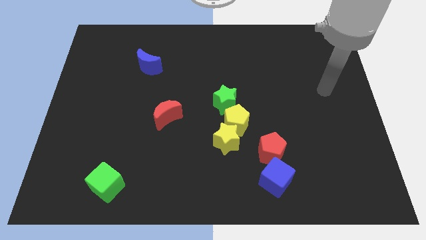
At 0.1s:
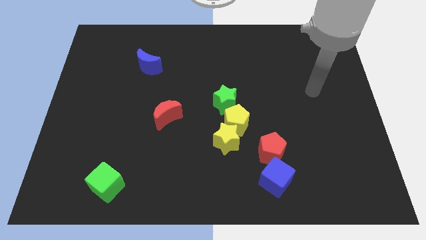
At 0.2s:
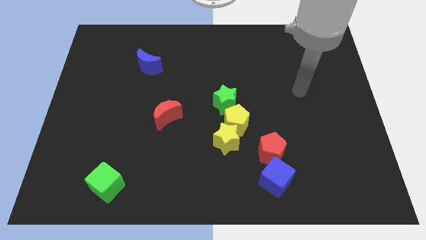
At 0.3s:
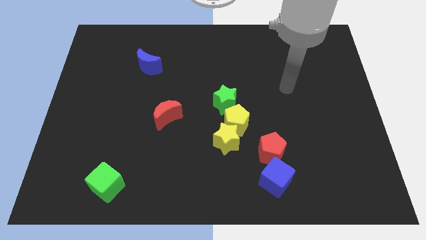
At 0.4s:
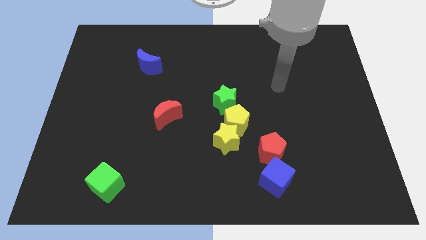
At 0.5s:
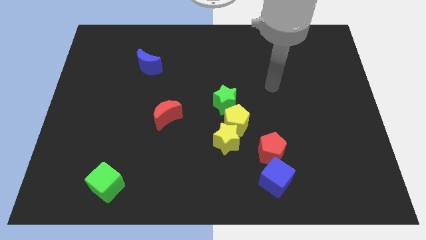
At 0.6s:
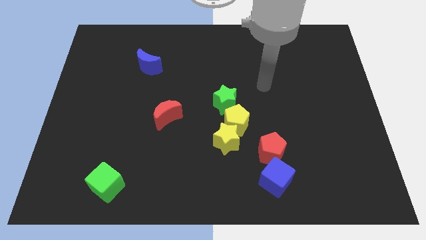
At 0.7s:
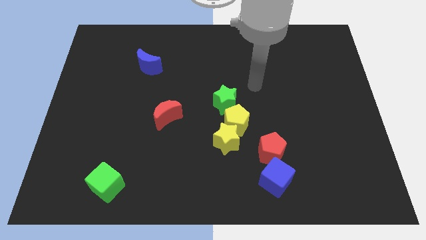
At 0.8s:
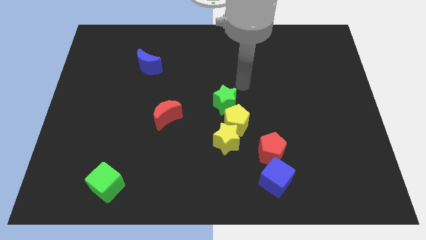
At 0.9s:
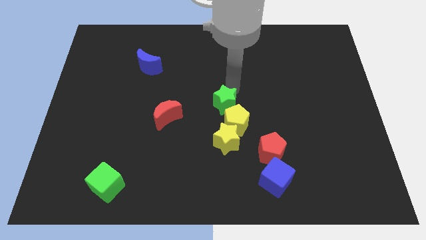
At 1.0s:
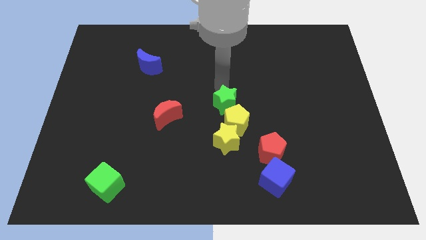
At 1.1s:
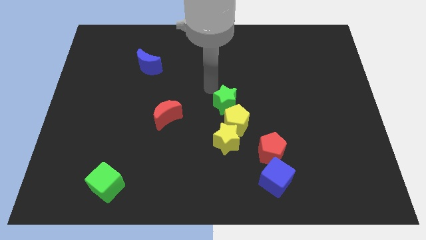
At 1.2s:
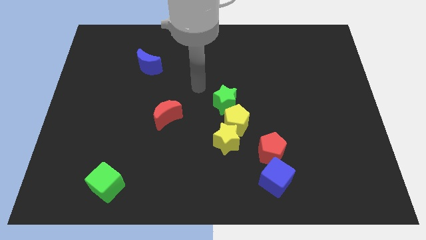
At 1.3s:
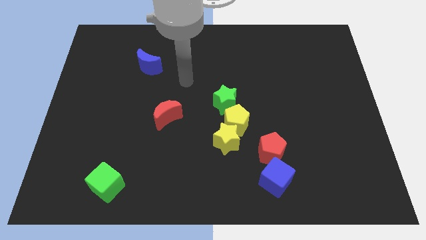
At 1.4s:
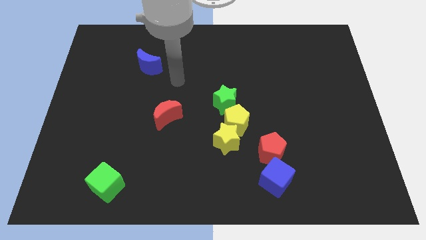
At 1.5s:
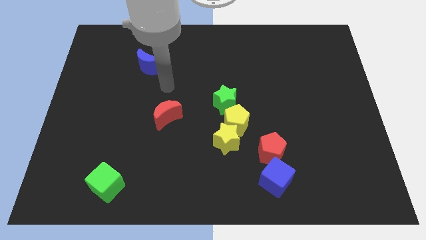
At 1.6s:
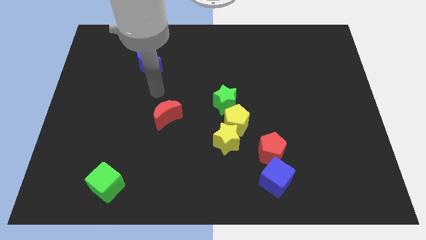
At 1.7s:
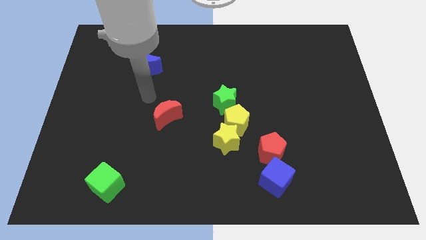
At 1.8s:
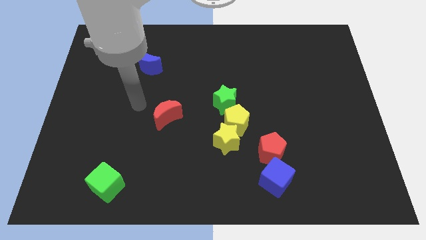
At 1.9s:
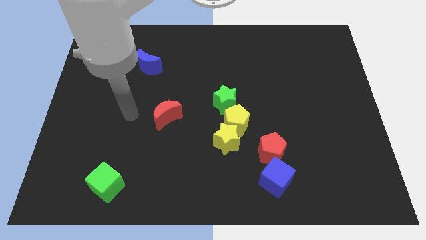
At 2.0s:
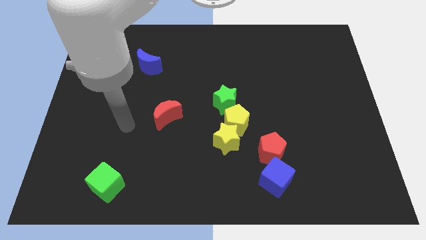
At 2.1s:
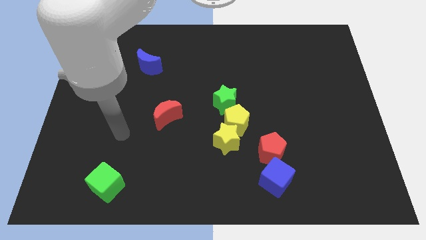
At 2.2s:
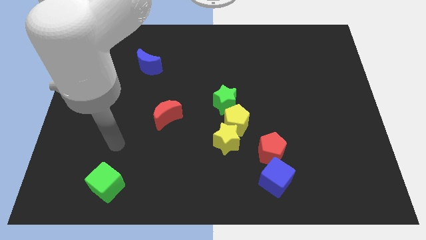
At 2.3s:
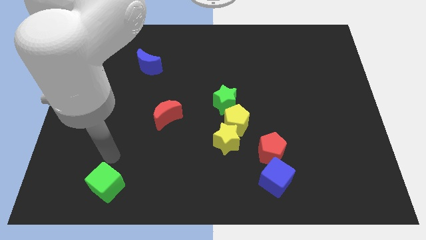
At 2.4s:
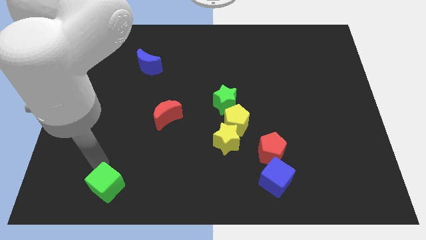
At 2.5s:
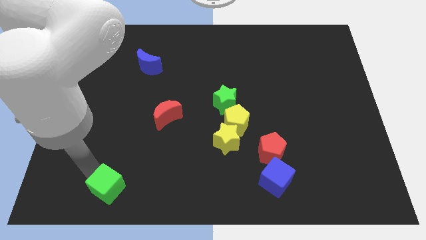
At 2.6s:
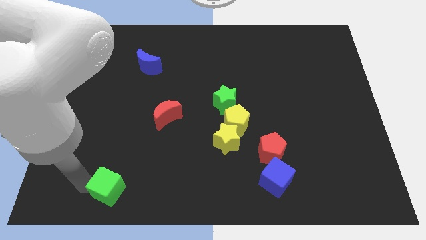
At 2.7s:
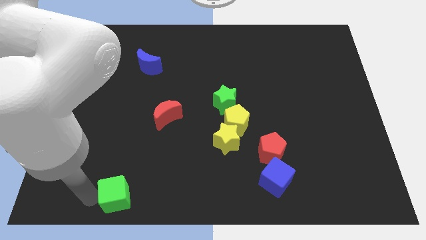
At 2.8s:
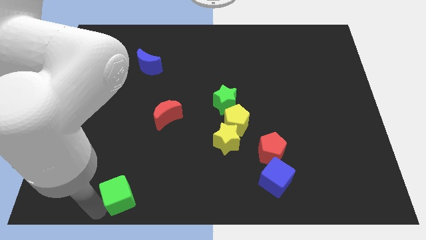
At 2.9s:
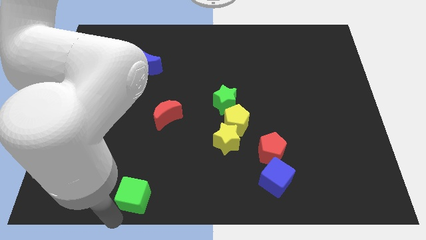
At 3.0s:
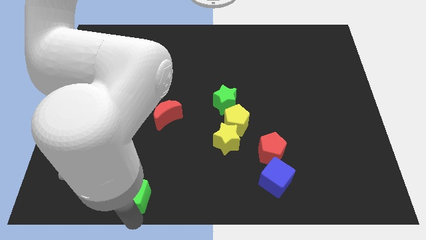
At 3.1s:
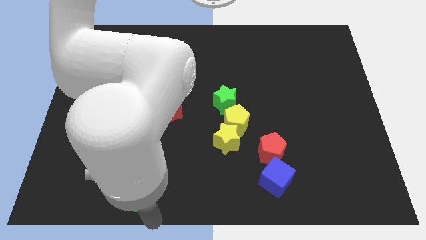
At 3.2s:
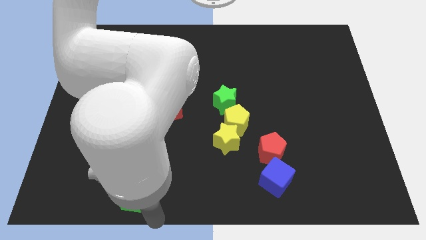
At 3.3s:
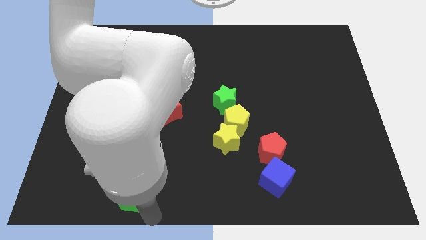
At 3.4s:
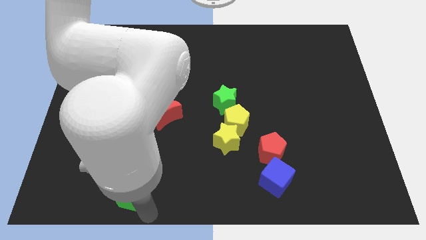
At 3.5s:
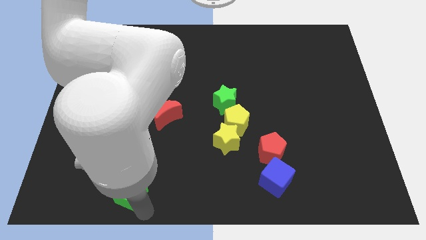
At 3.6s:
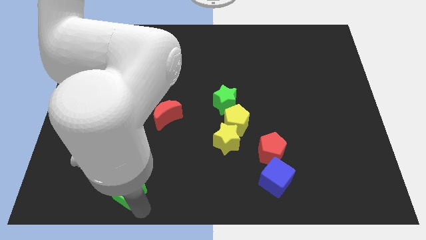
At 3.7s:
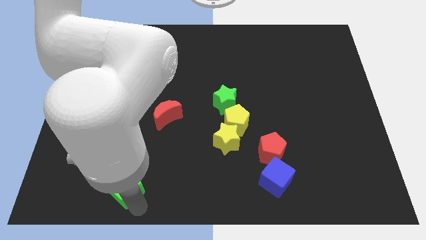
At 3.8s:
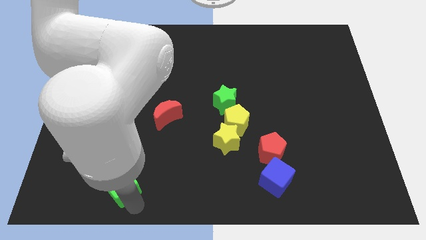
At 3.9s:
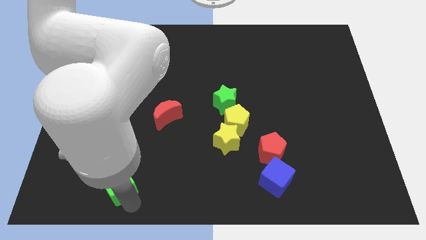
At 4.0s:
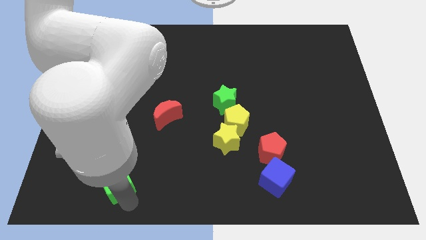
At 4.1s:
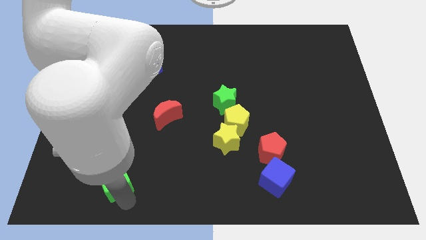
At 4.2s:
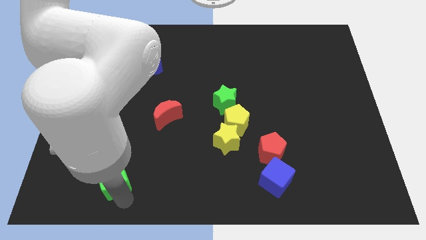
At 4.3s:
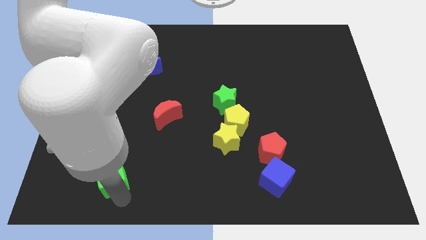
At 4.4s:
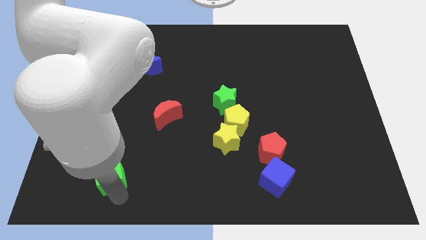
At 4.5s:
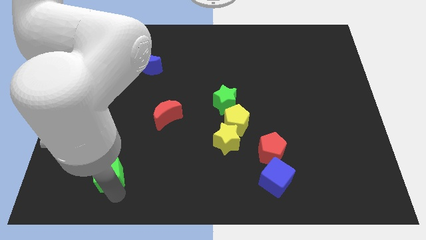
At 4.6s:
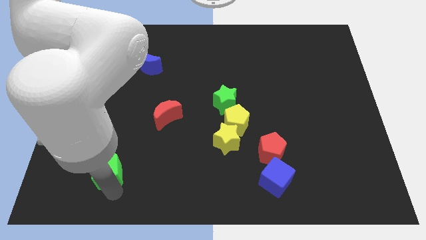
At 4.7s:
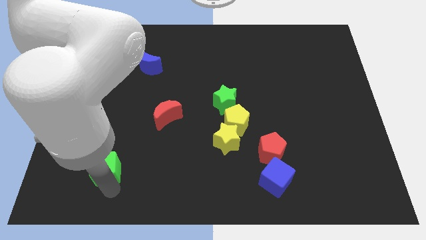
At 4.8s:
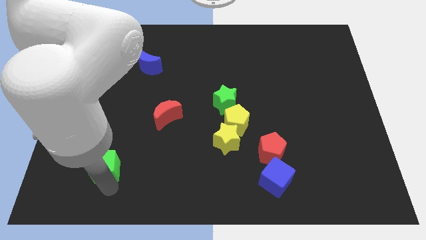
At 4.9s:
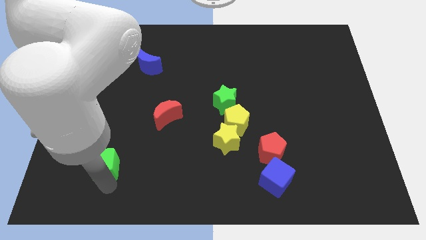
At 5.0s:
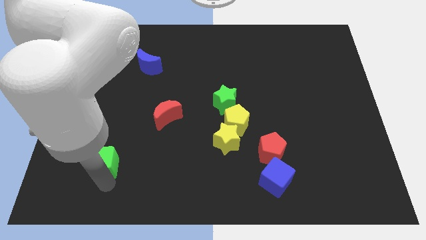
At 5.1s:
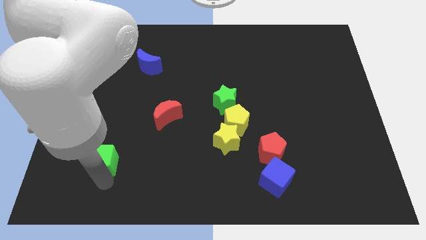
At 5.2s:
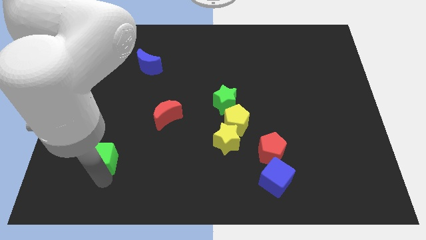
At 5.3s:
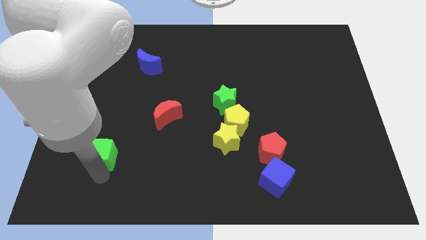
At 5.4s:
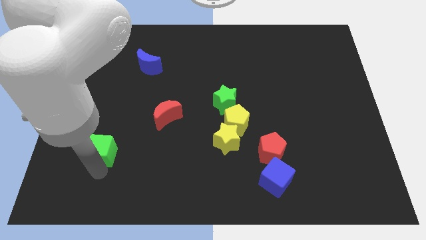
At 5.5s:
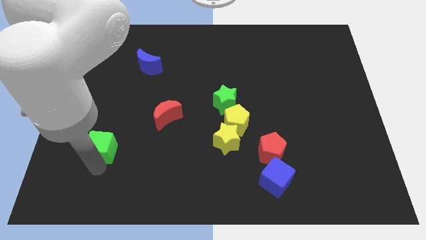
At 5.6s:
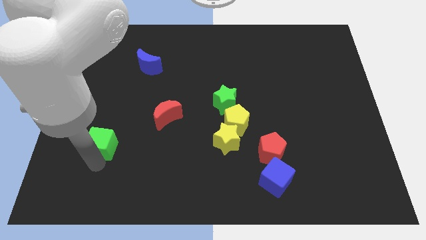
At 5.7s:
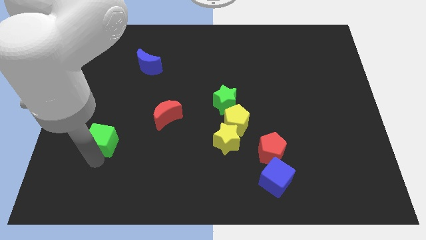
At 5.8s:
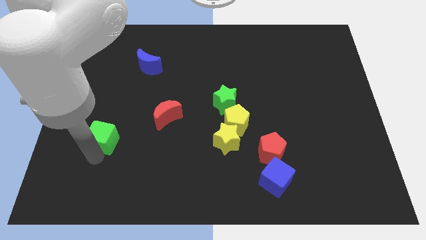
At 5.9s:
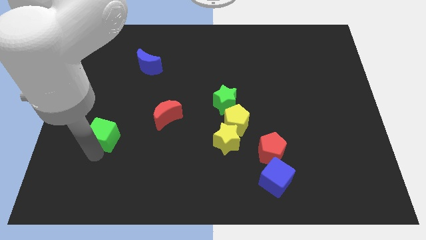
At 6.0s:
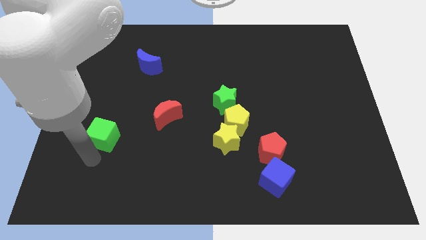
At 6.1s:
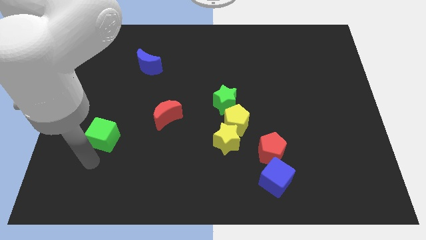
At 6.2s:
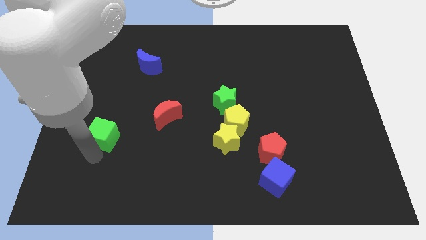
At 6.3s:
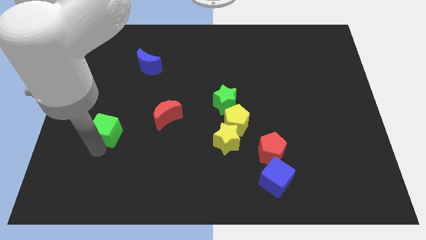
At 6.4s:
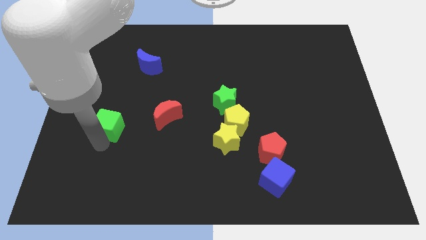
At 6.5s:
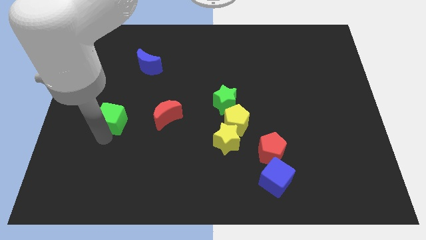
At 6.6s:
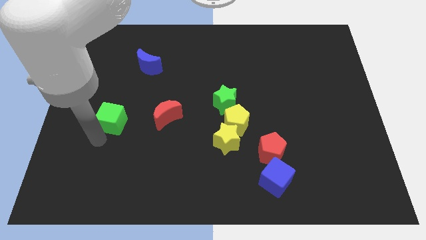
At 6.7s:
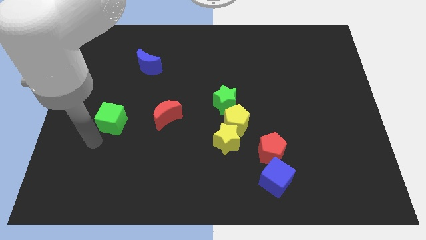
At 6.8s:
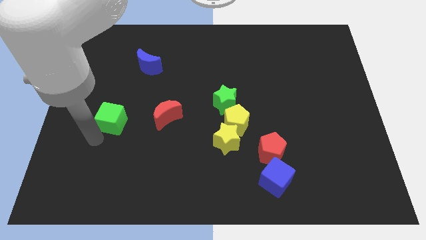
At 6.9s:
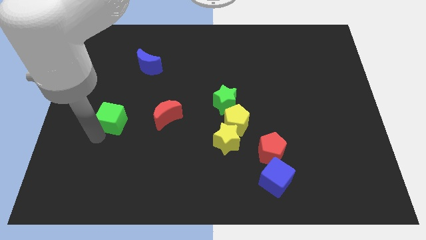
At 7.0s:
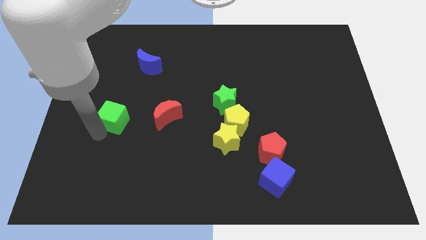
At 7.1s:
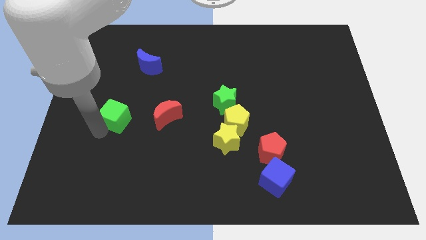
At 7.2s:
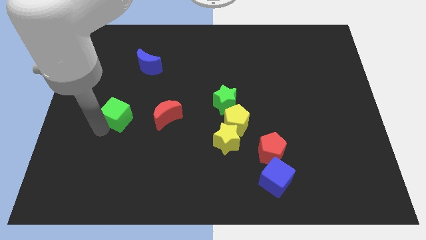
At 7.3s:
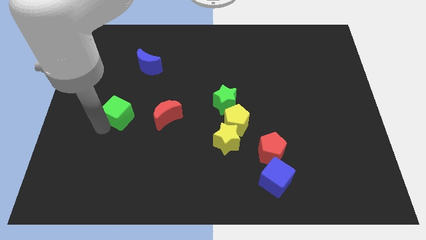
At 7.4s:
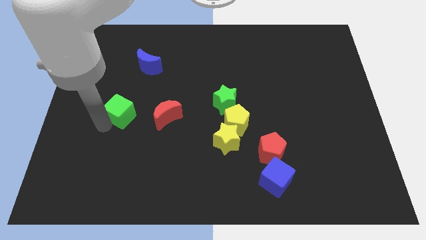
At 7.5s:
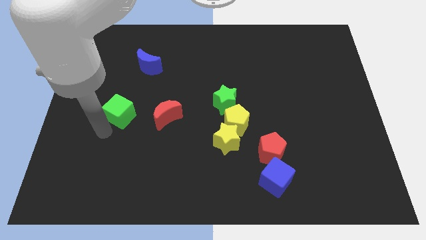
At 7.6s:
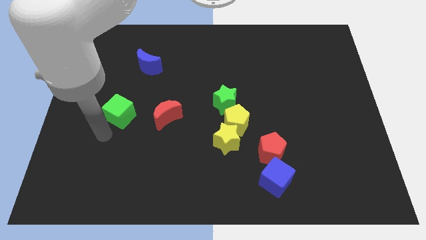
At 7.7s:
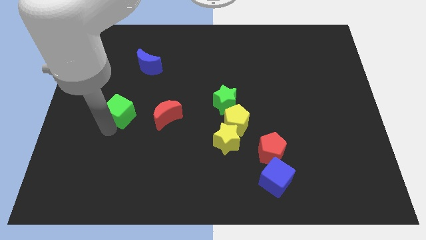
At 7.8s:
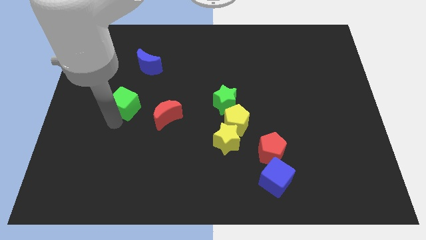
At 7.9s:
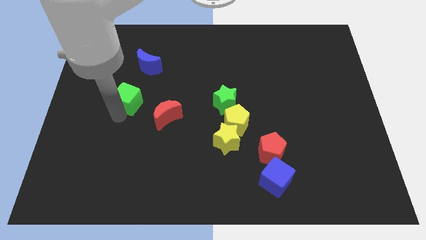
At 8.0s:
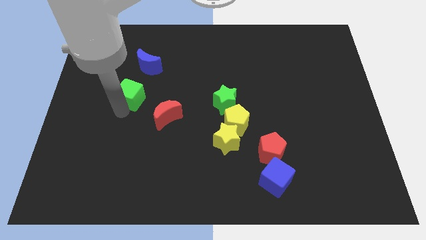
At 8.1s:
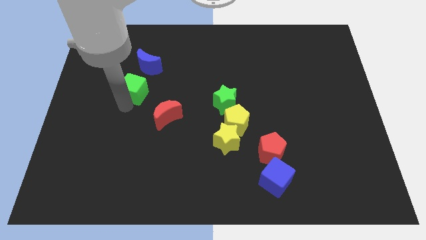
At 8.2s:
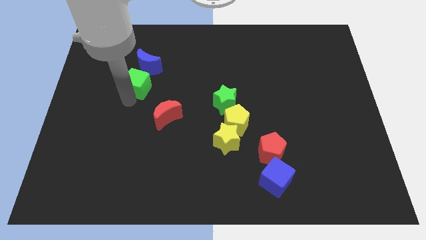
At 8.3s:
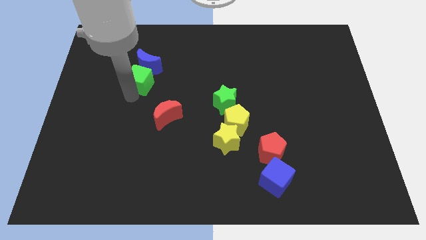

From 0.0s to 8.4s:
put the green cube towards the blue moon
